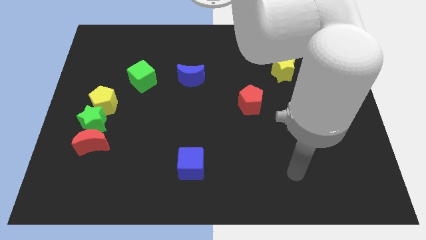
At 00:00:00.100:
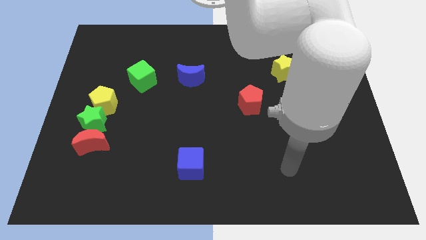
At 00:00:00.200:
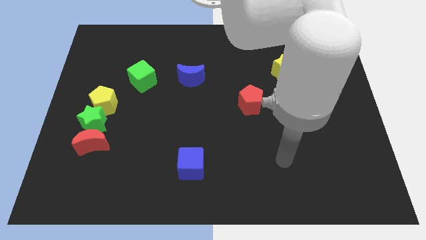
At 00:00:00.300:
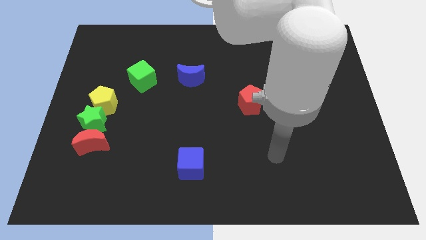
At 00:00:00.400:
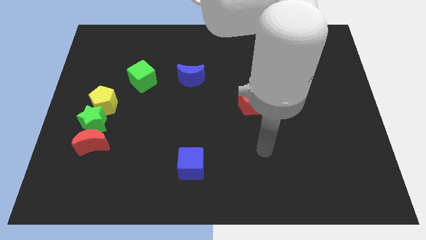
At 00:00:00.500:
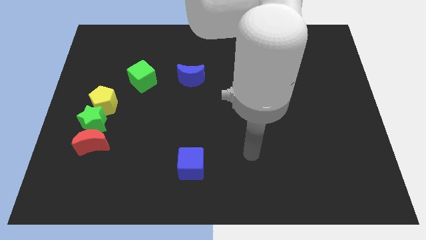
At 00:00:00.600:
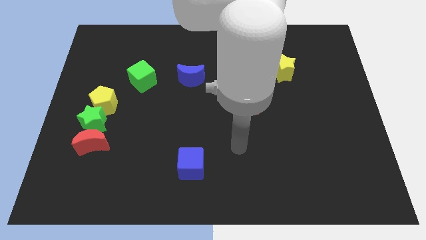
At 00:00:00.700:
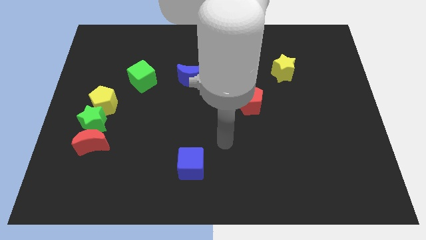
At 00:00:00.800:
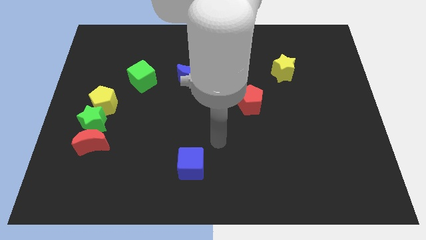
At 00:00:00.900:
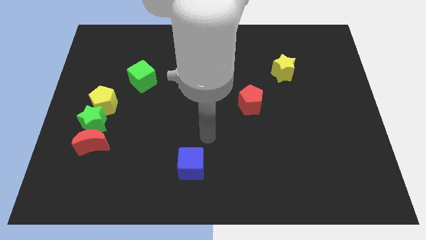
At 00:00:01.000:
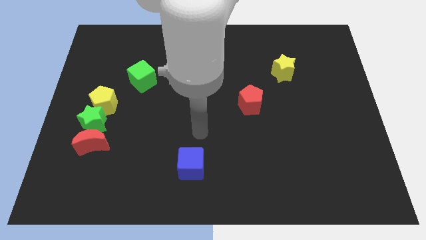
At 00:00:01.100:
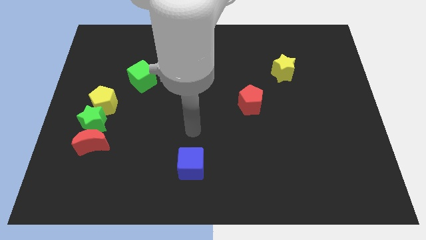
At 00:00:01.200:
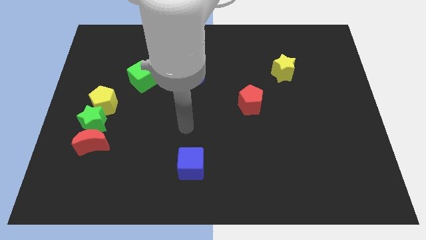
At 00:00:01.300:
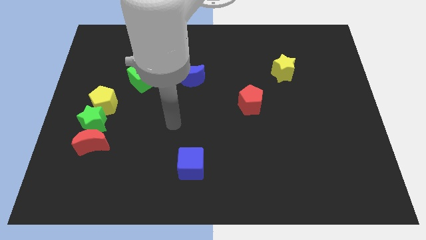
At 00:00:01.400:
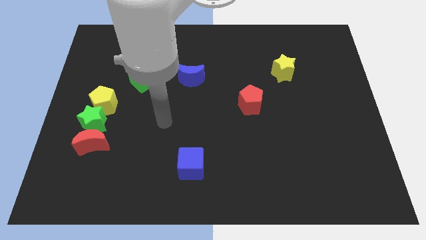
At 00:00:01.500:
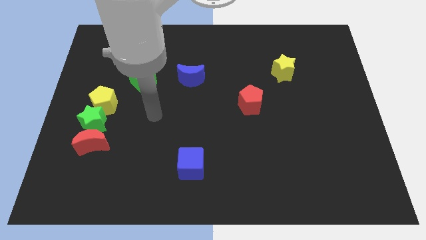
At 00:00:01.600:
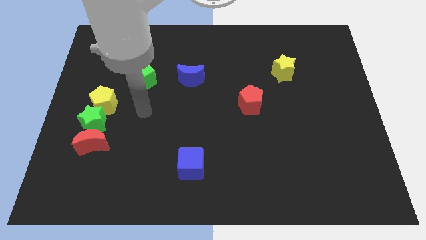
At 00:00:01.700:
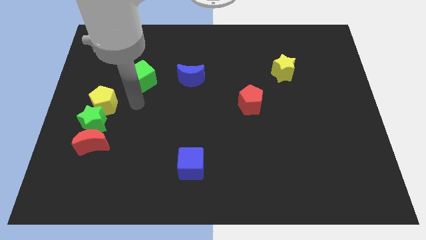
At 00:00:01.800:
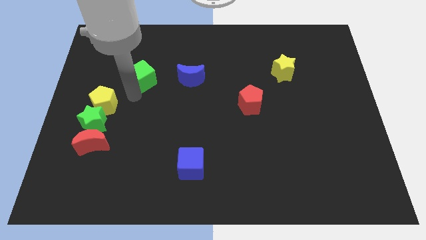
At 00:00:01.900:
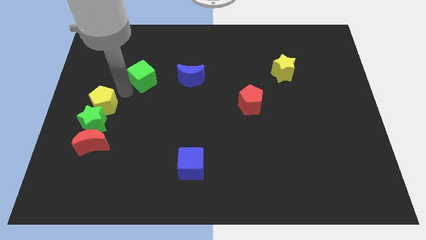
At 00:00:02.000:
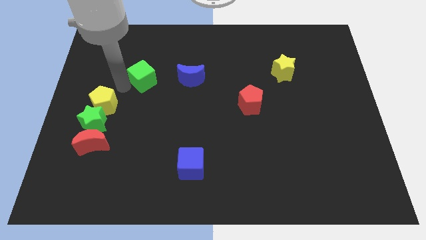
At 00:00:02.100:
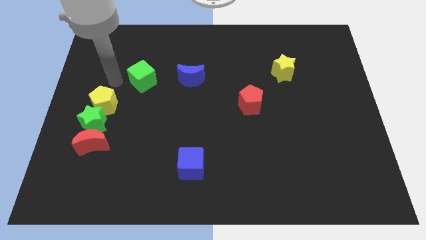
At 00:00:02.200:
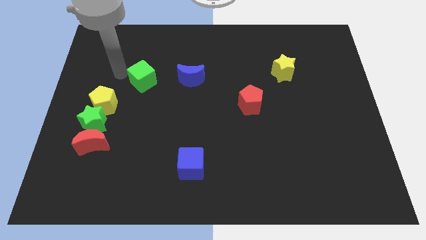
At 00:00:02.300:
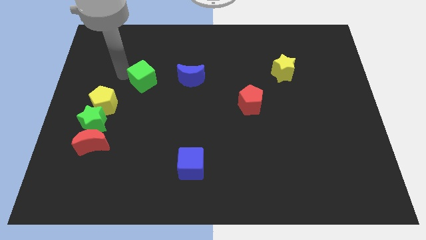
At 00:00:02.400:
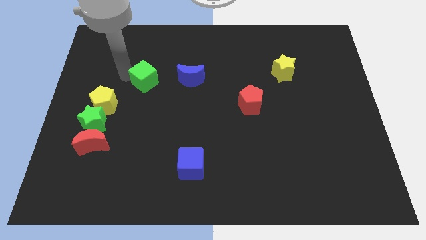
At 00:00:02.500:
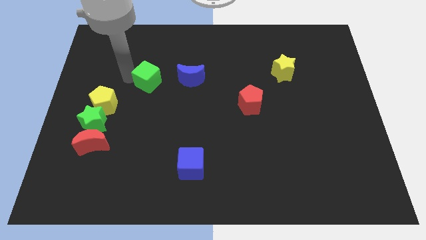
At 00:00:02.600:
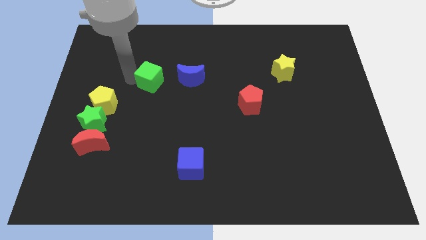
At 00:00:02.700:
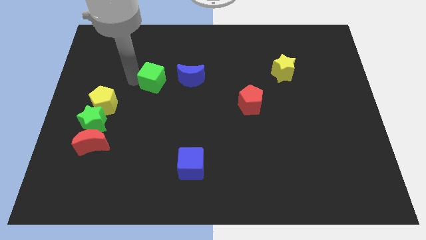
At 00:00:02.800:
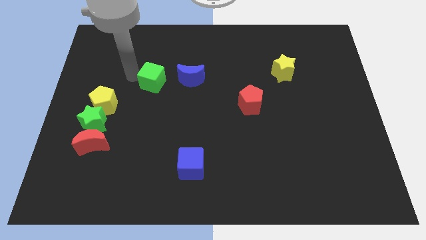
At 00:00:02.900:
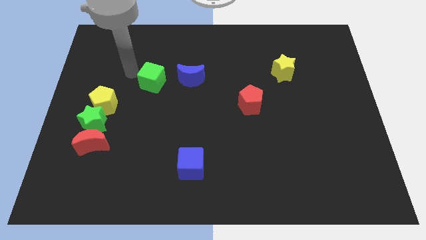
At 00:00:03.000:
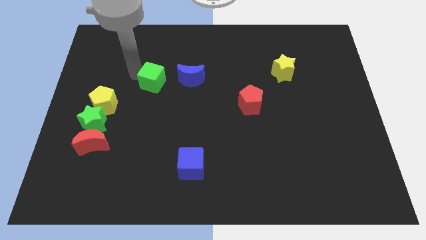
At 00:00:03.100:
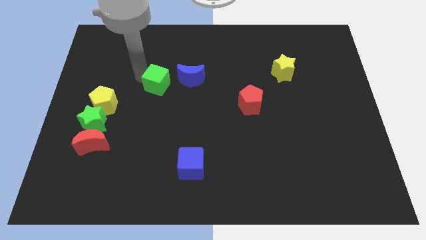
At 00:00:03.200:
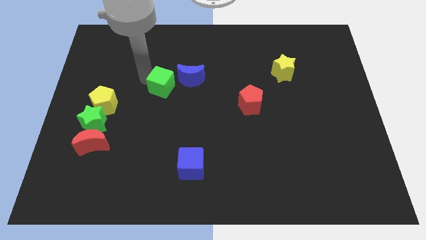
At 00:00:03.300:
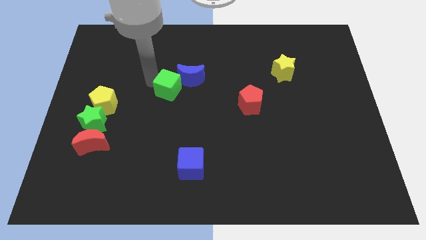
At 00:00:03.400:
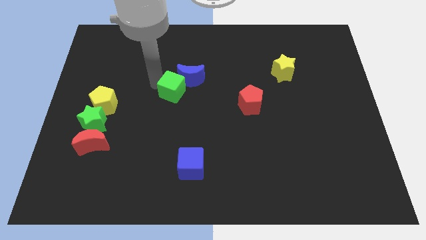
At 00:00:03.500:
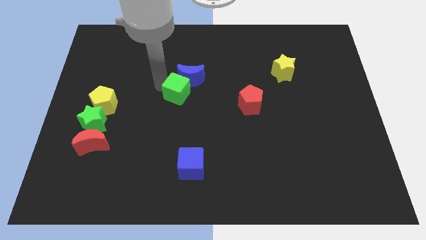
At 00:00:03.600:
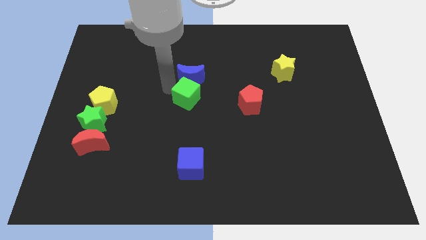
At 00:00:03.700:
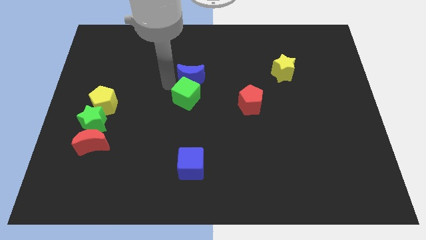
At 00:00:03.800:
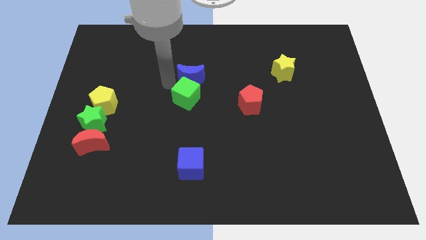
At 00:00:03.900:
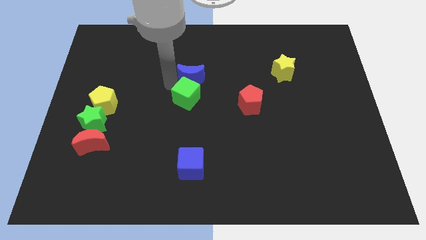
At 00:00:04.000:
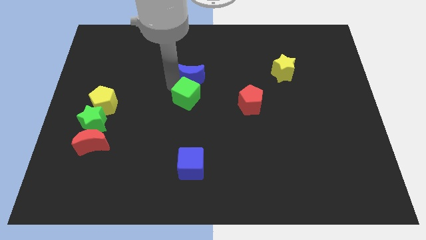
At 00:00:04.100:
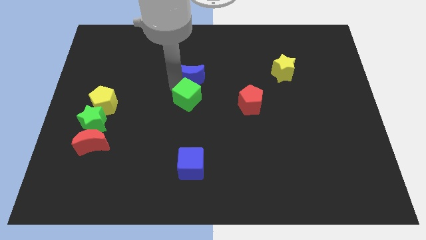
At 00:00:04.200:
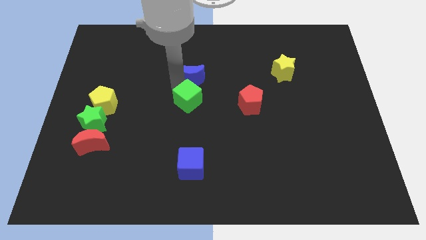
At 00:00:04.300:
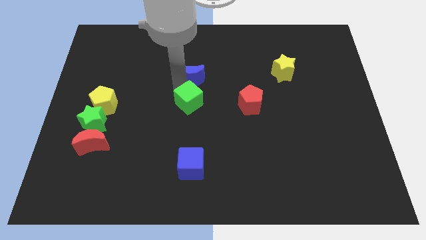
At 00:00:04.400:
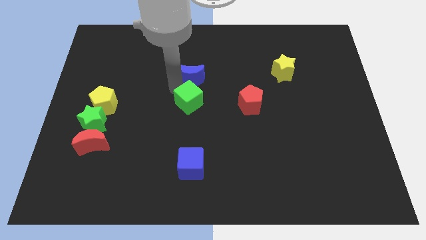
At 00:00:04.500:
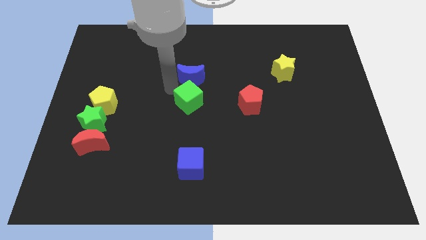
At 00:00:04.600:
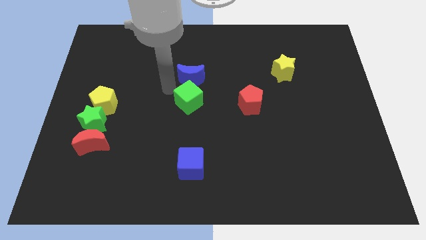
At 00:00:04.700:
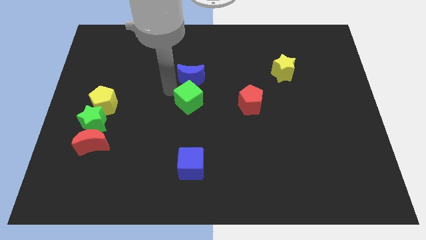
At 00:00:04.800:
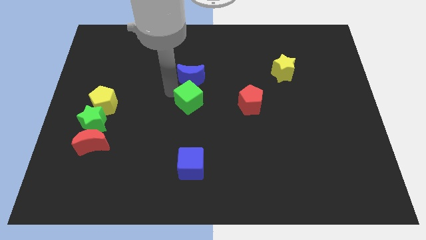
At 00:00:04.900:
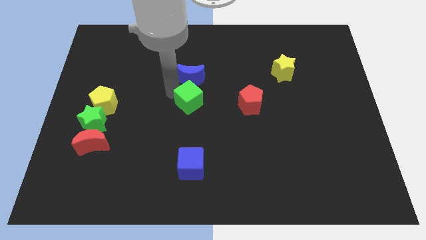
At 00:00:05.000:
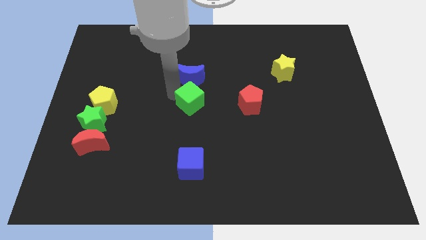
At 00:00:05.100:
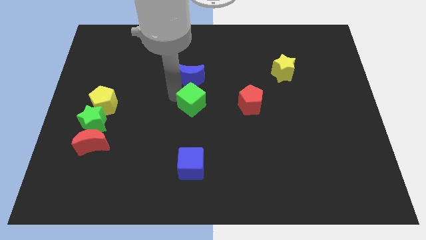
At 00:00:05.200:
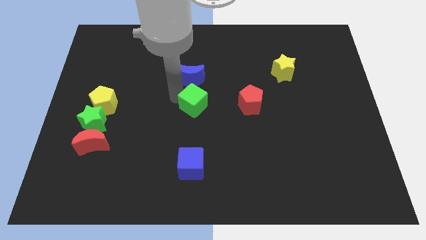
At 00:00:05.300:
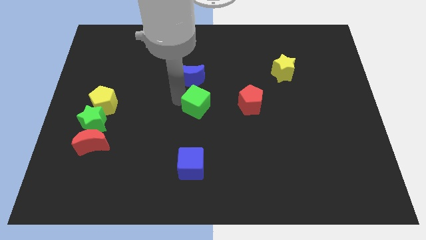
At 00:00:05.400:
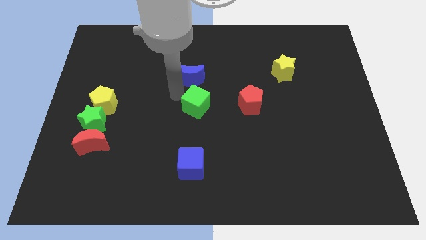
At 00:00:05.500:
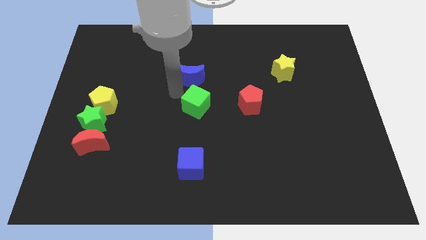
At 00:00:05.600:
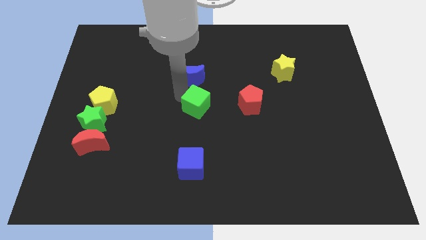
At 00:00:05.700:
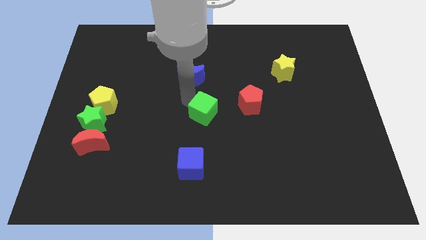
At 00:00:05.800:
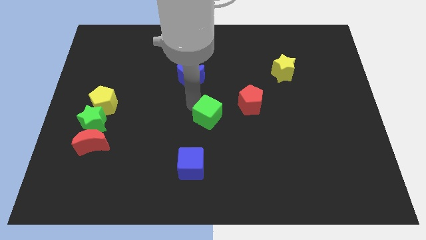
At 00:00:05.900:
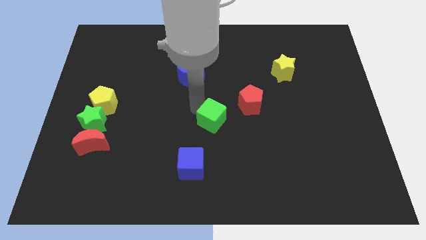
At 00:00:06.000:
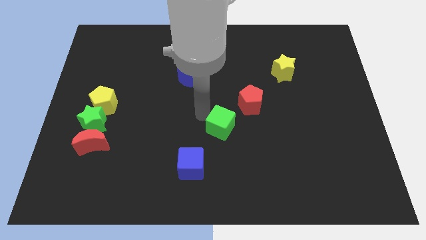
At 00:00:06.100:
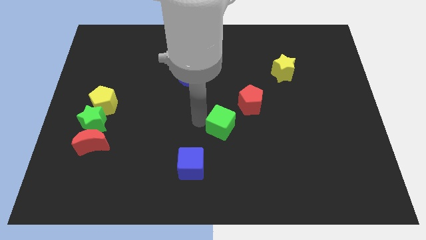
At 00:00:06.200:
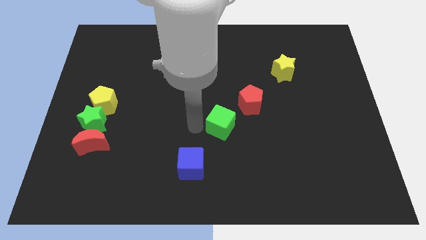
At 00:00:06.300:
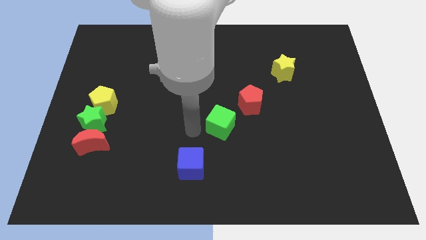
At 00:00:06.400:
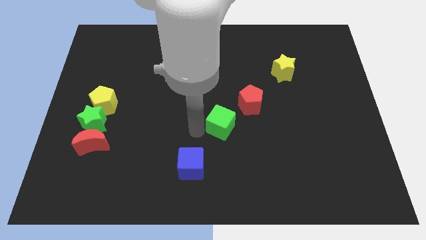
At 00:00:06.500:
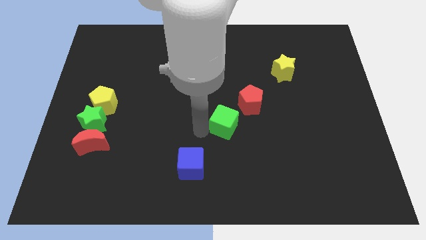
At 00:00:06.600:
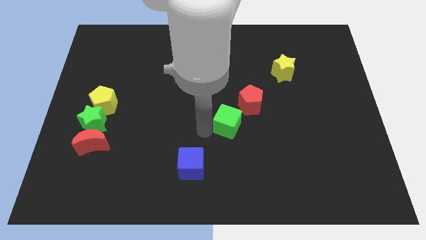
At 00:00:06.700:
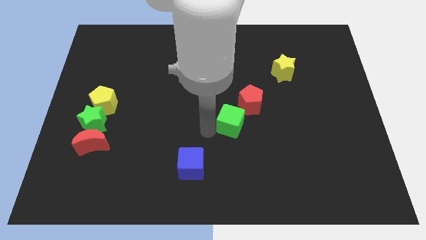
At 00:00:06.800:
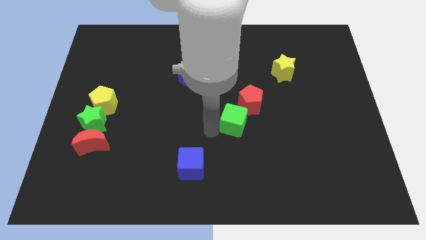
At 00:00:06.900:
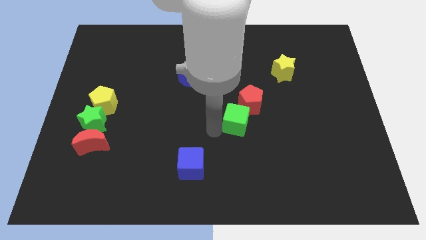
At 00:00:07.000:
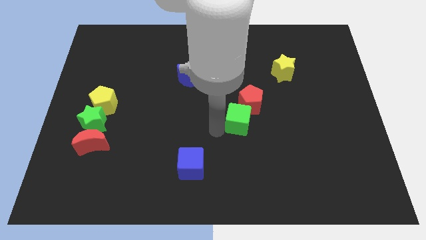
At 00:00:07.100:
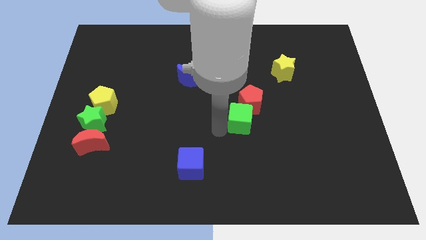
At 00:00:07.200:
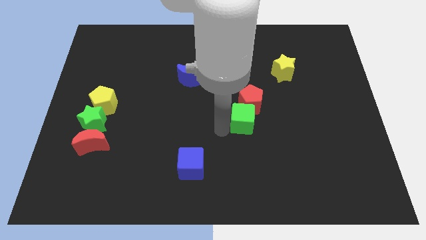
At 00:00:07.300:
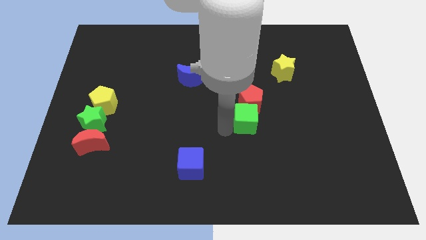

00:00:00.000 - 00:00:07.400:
slide the green cube diagonally down and to the right of the red pentagon
